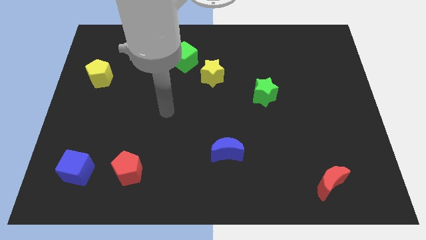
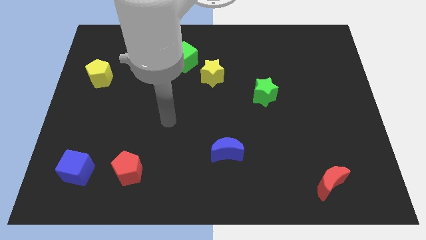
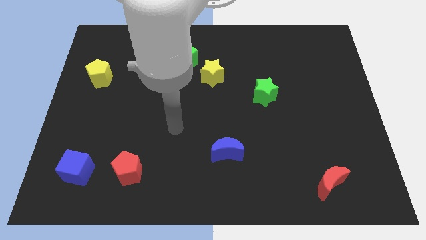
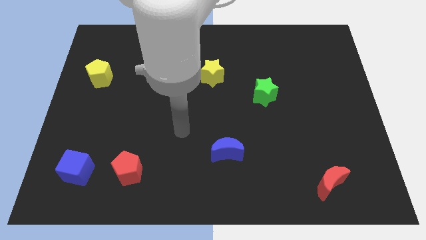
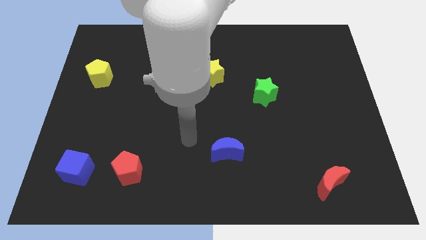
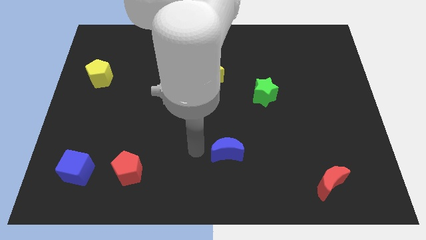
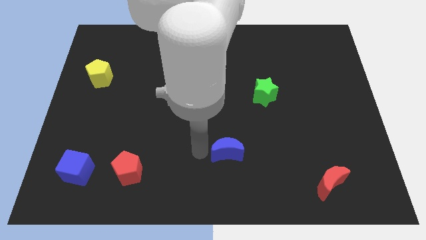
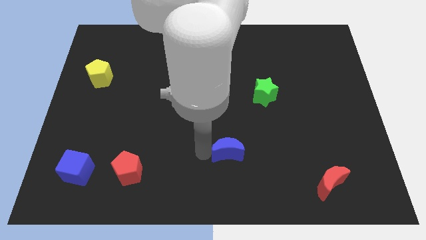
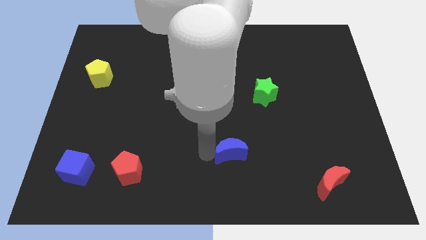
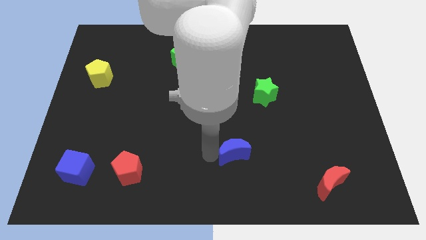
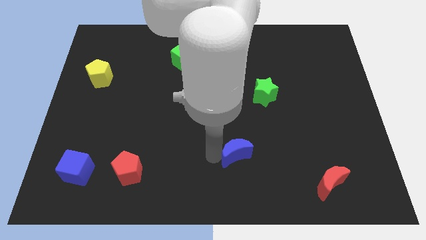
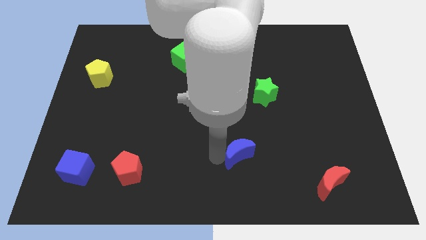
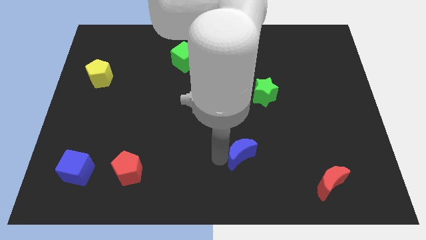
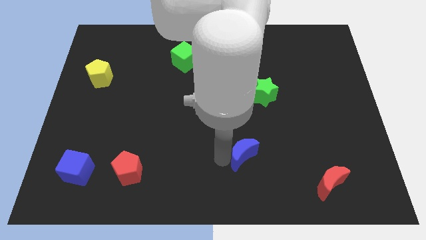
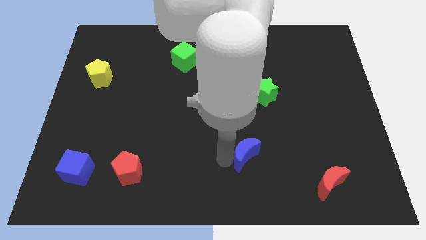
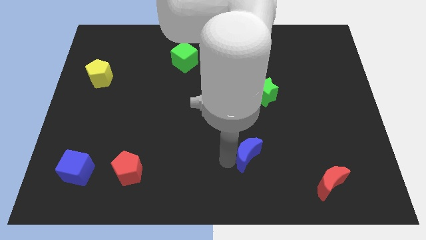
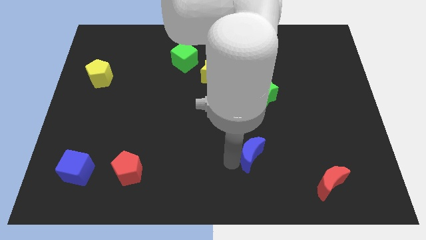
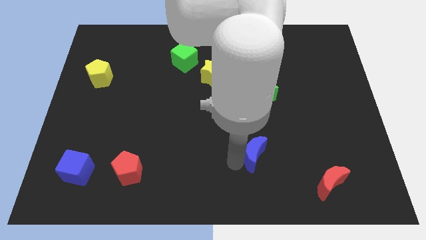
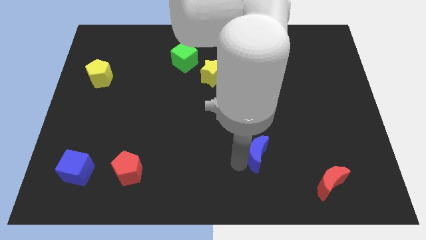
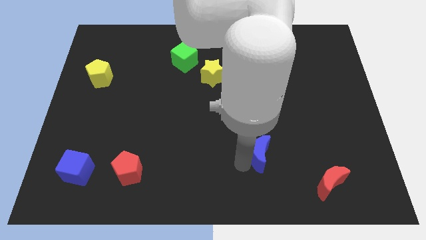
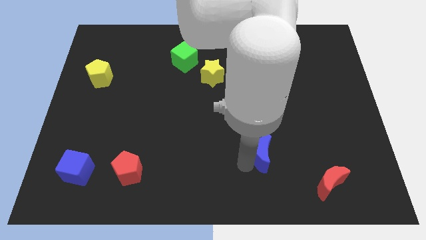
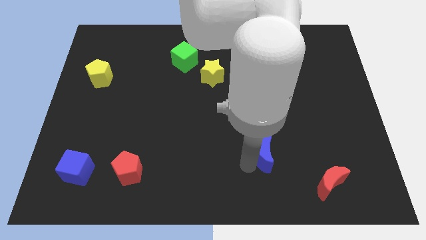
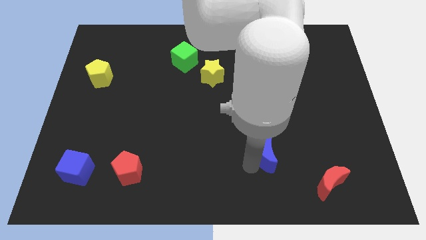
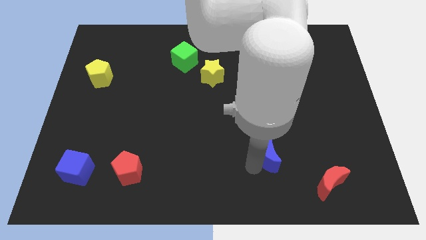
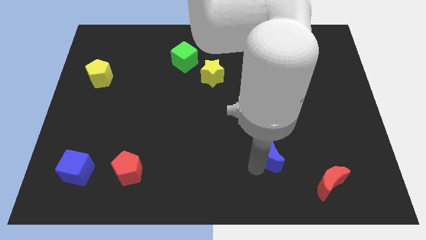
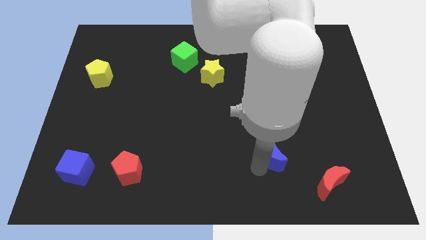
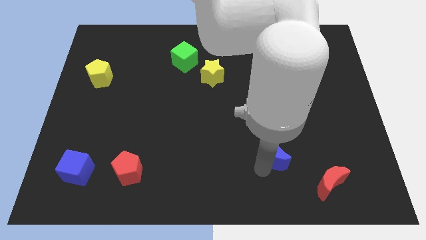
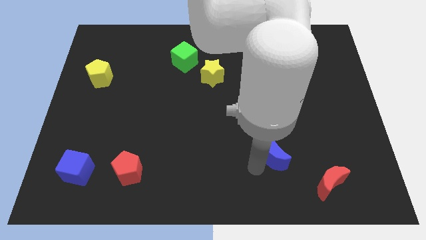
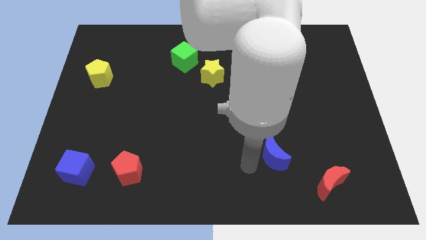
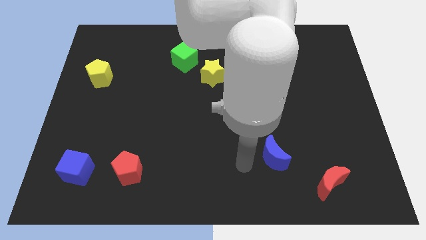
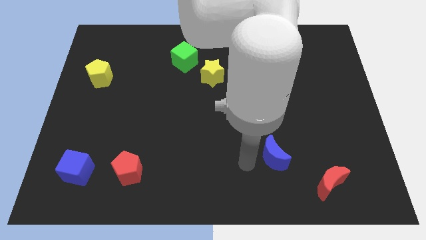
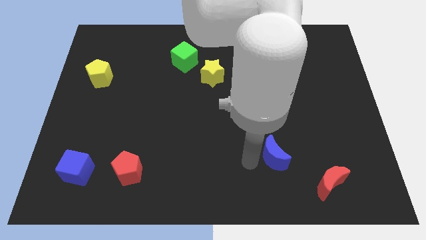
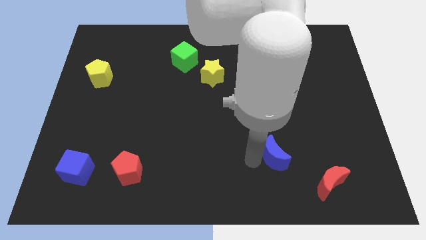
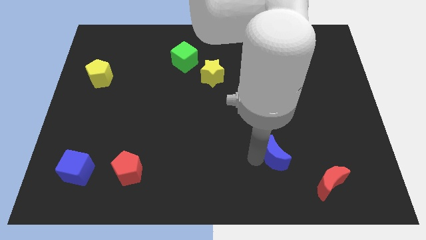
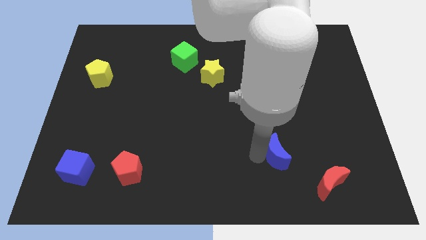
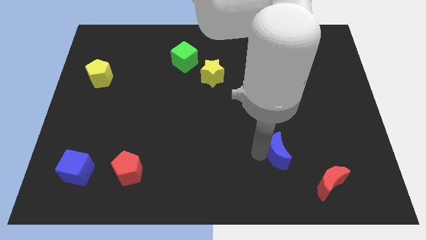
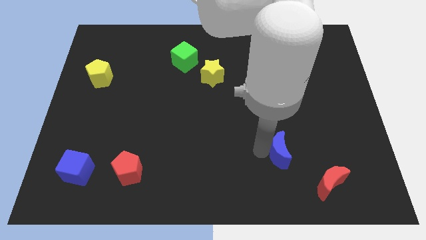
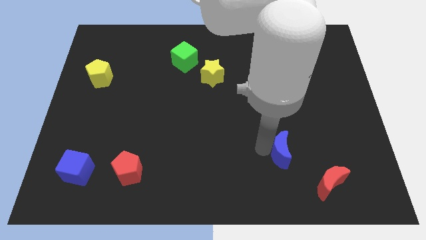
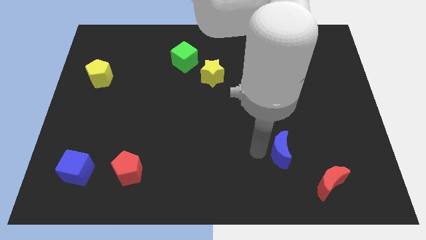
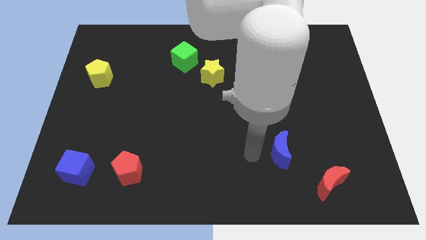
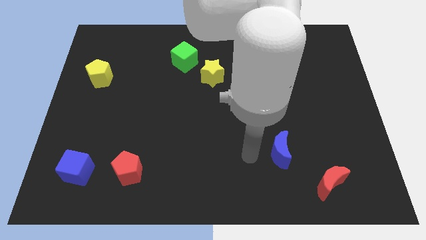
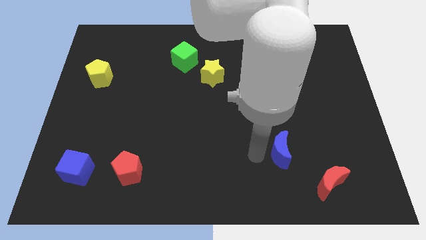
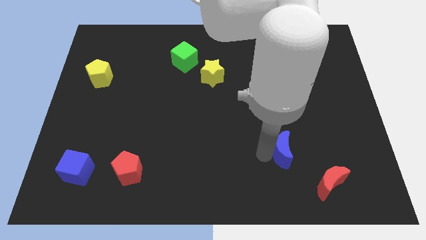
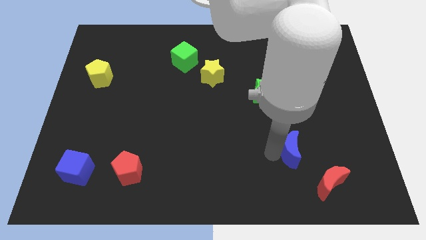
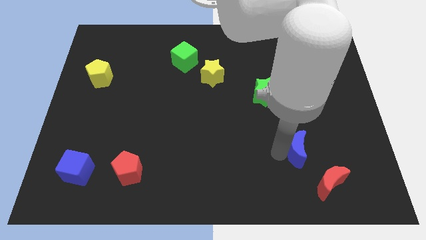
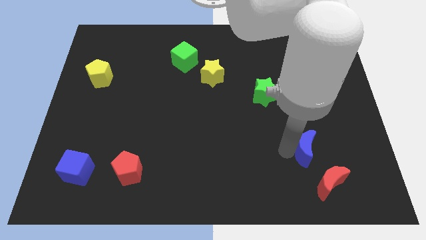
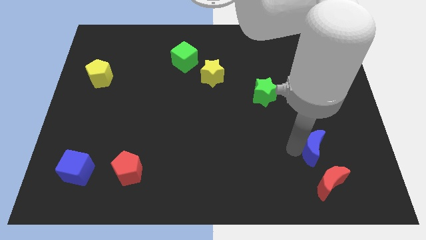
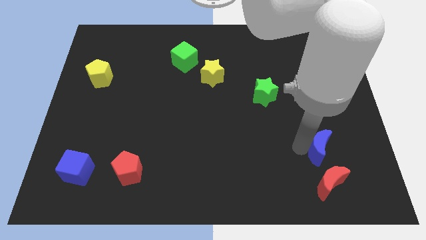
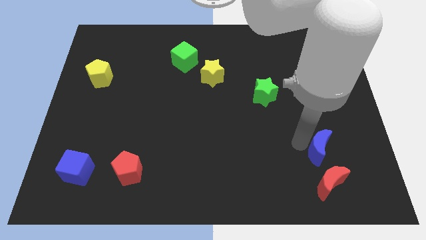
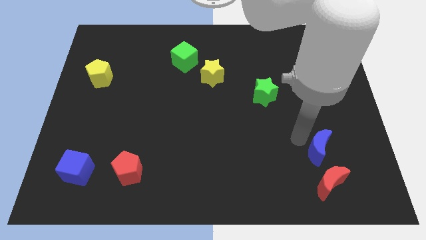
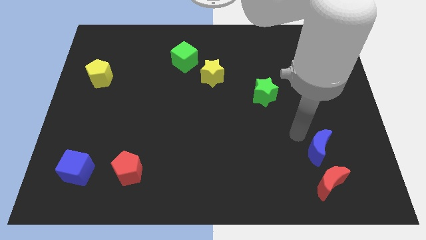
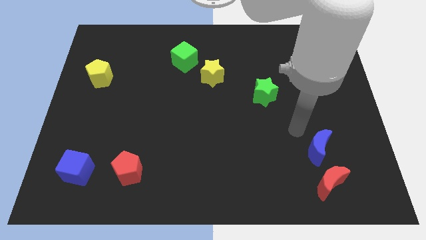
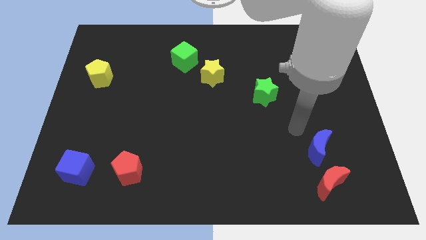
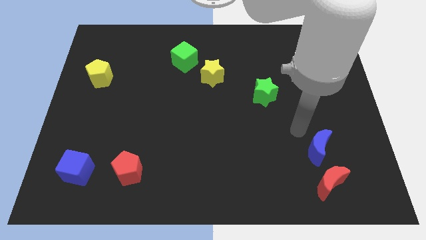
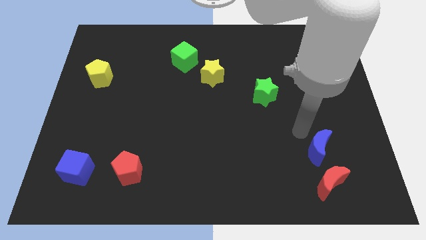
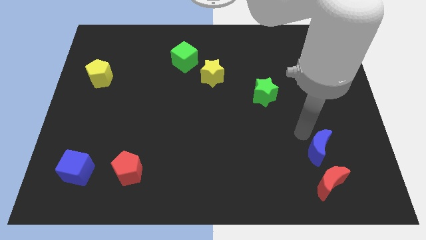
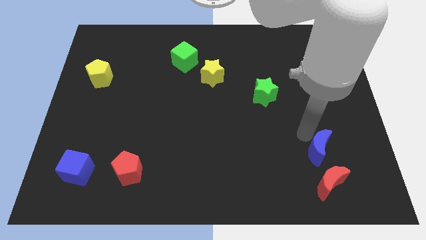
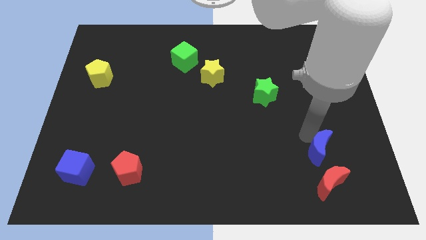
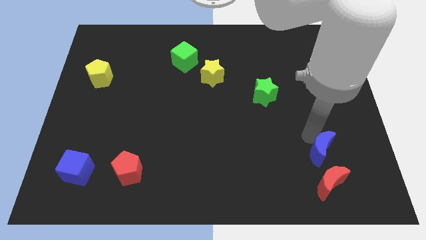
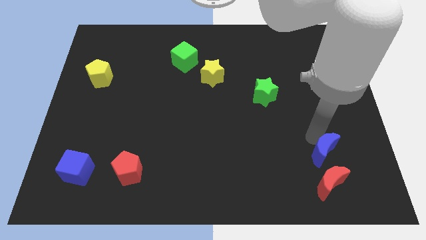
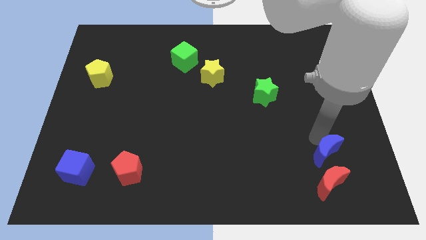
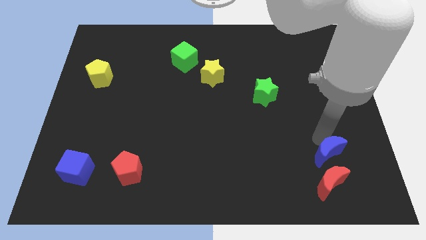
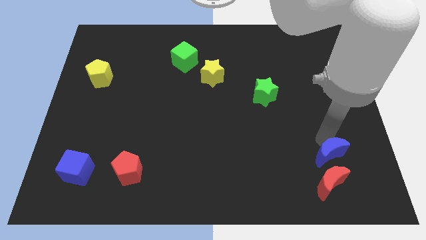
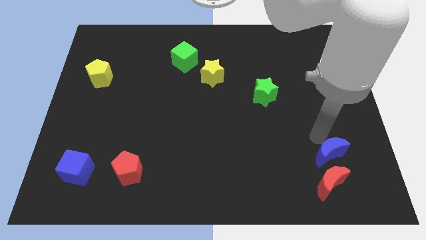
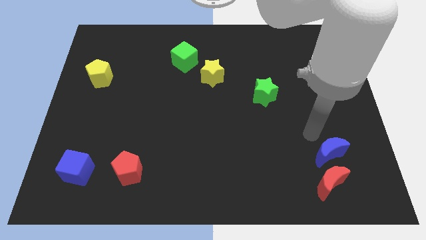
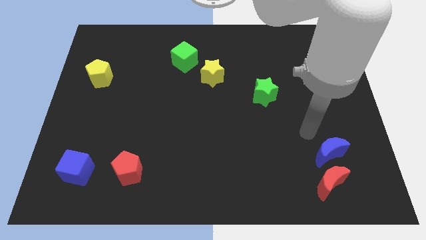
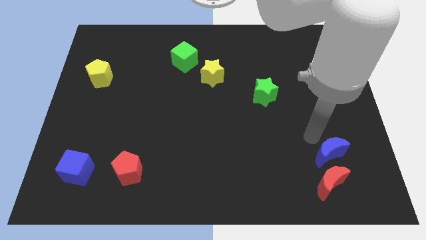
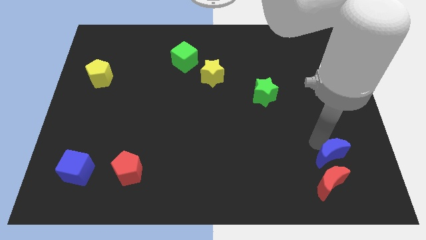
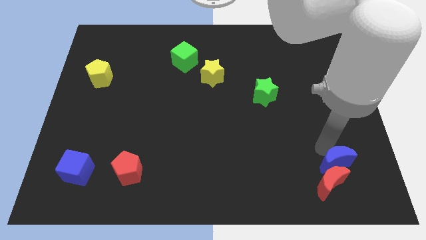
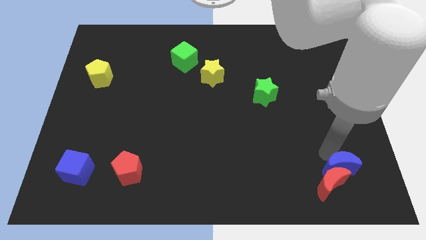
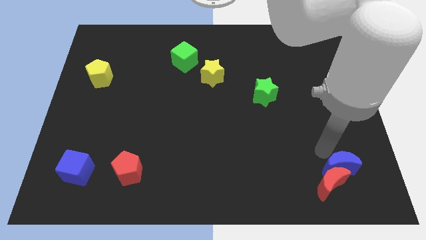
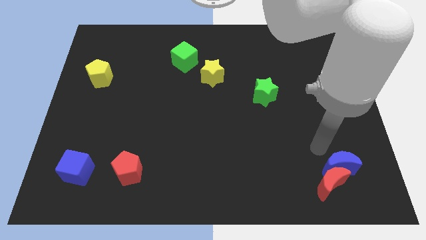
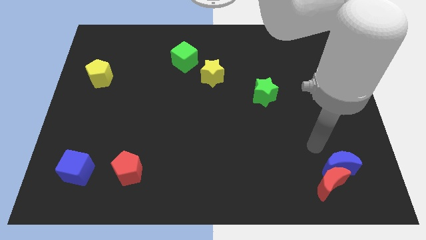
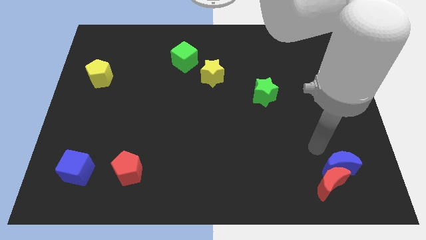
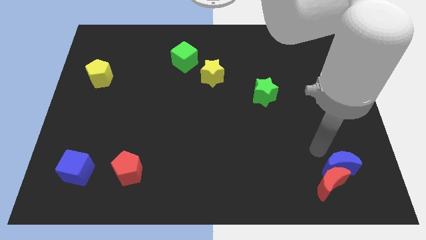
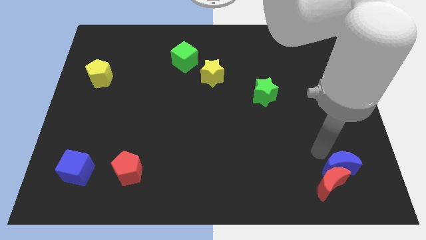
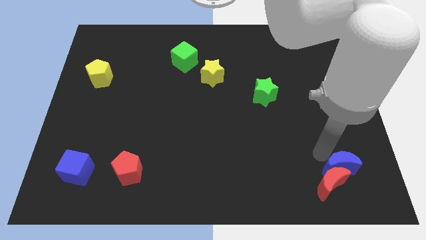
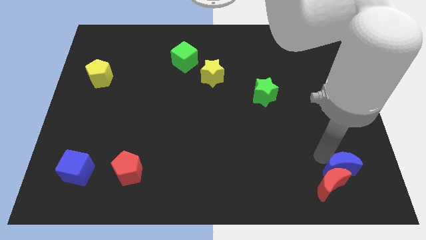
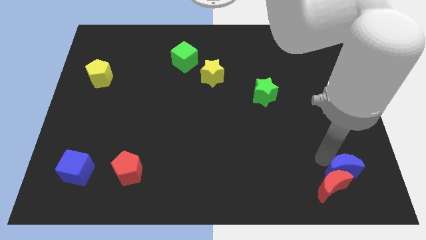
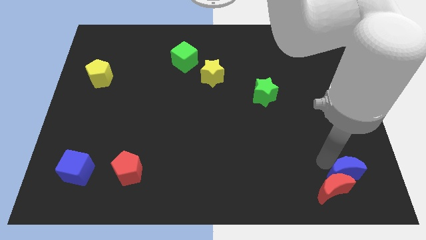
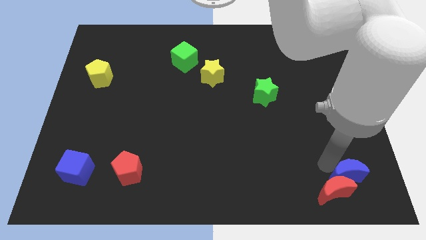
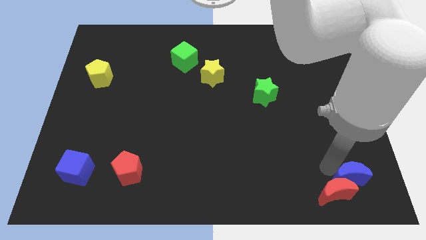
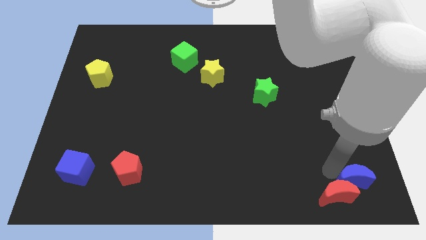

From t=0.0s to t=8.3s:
push the blue moon to the bottom right corner
